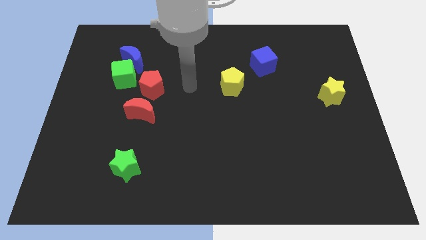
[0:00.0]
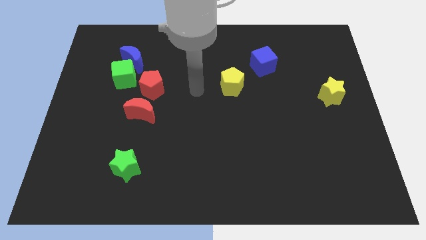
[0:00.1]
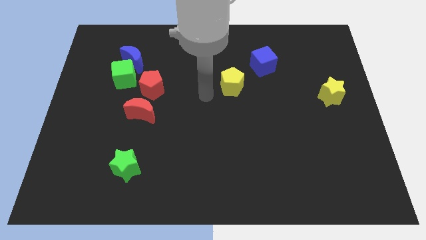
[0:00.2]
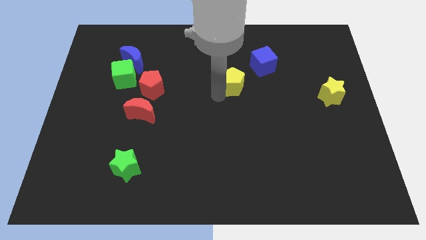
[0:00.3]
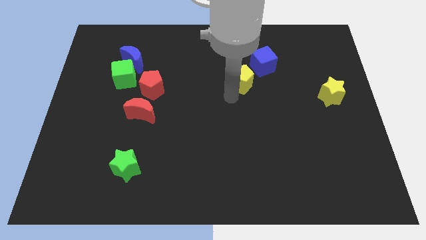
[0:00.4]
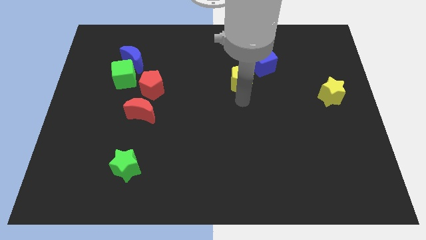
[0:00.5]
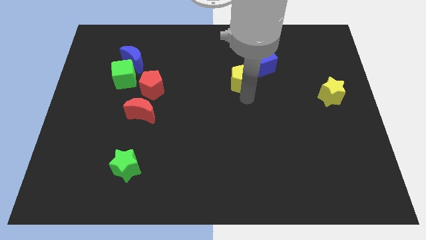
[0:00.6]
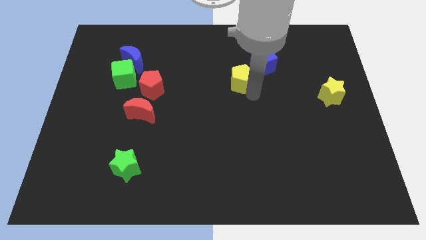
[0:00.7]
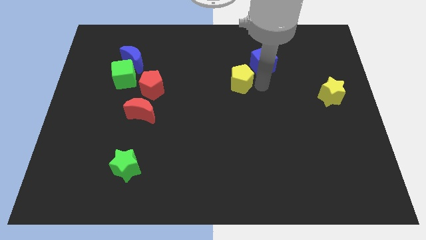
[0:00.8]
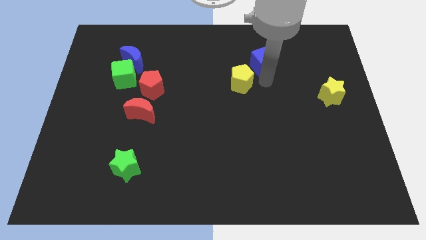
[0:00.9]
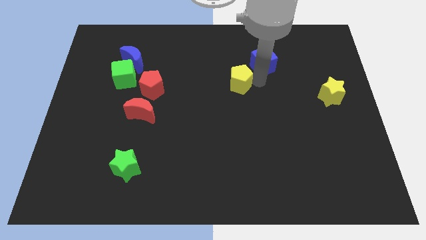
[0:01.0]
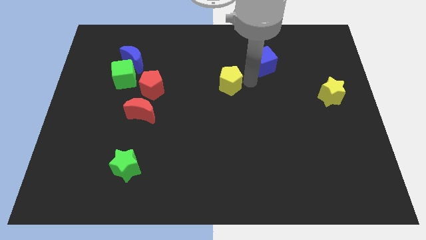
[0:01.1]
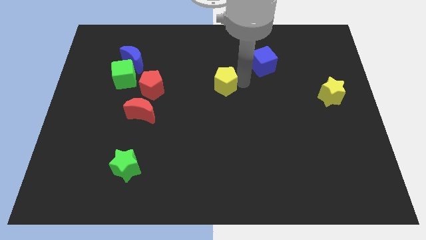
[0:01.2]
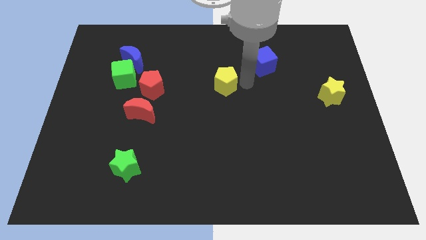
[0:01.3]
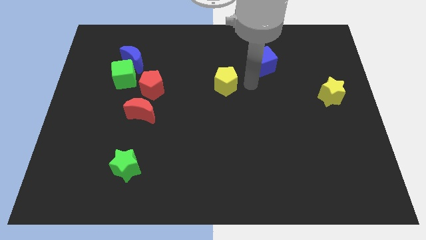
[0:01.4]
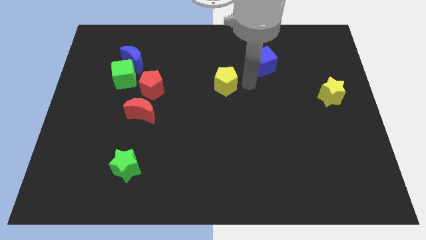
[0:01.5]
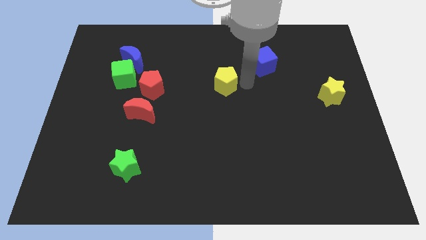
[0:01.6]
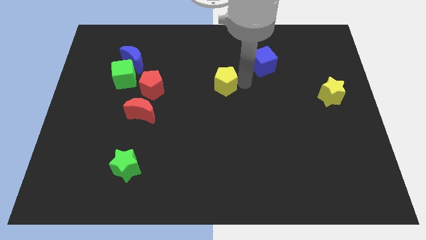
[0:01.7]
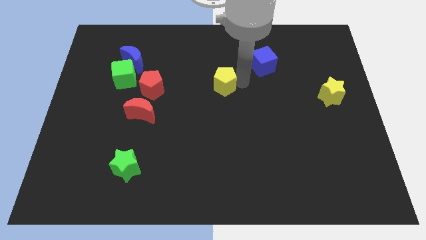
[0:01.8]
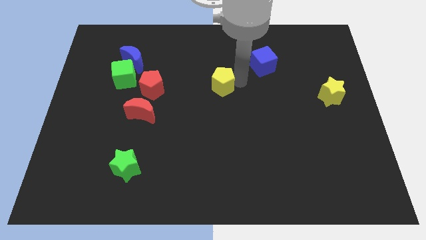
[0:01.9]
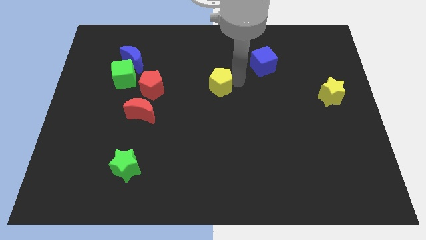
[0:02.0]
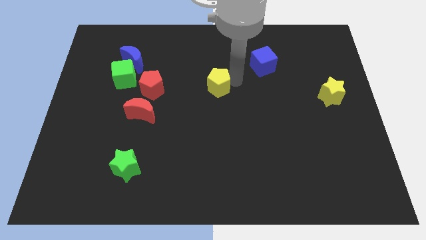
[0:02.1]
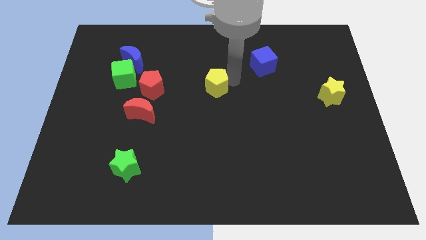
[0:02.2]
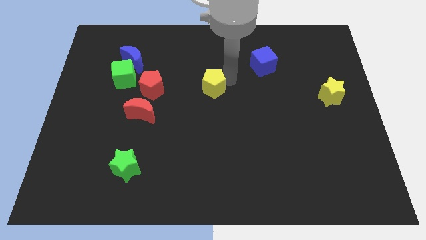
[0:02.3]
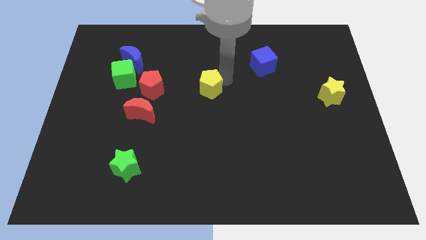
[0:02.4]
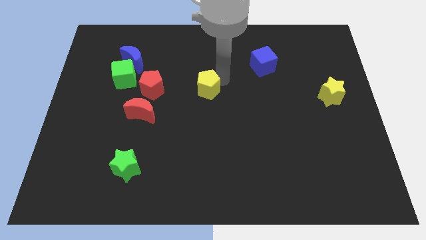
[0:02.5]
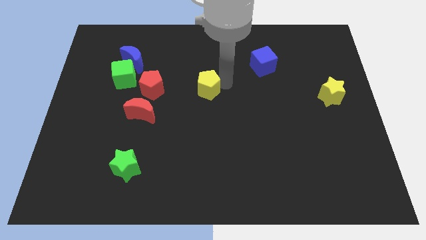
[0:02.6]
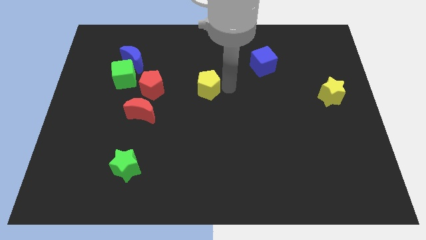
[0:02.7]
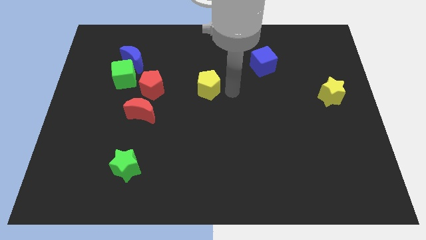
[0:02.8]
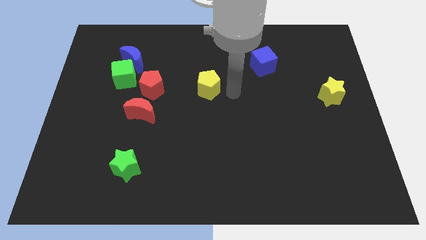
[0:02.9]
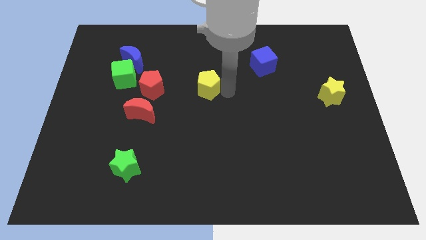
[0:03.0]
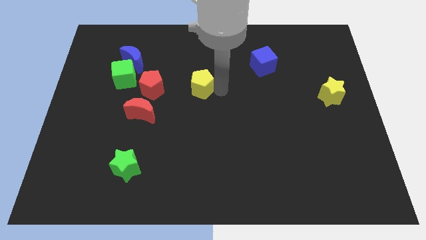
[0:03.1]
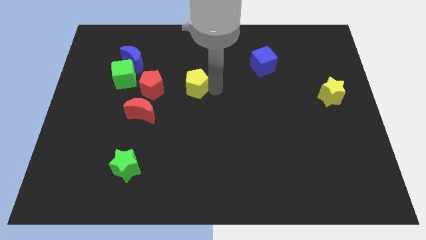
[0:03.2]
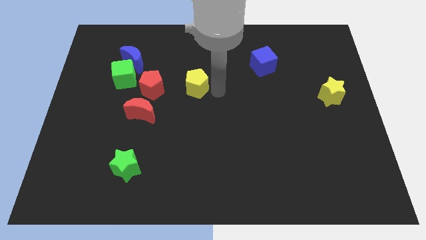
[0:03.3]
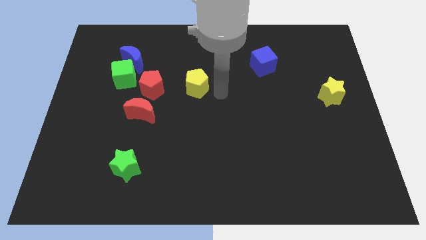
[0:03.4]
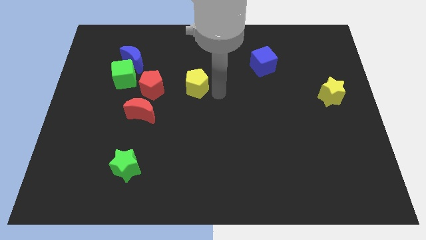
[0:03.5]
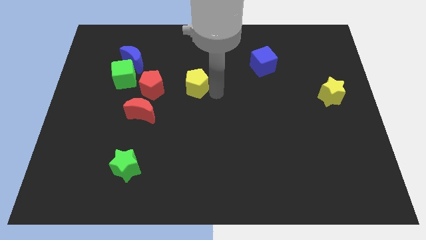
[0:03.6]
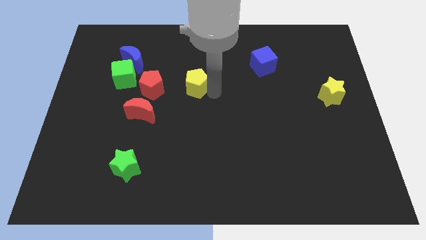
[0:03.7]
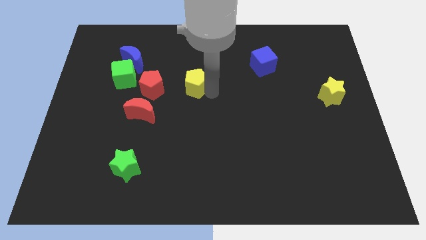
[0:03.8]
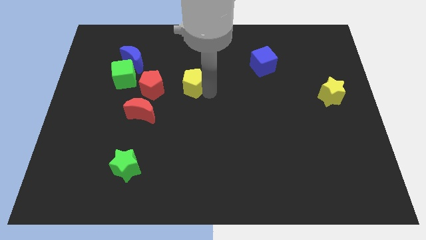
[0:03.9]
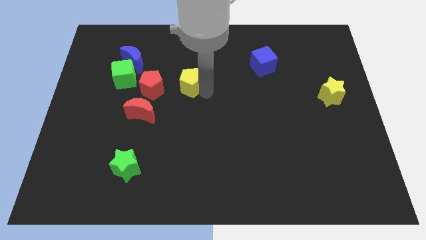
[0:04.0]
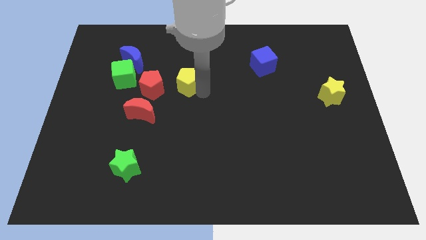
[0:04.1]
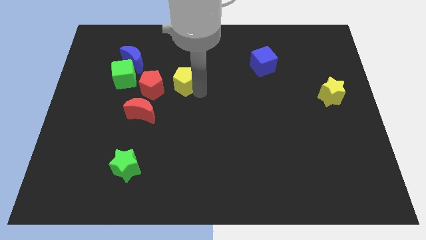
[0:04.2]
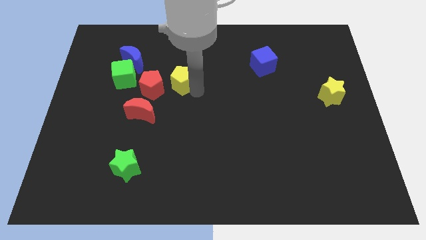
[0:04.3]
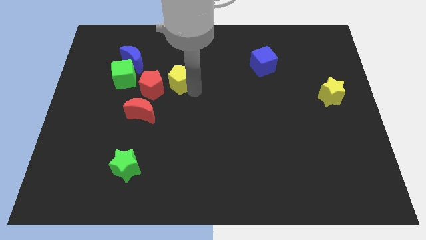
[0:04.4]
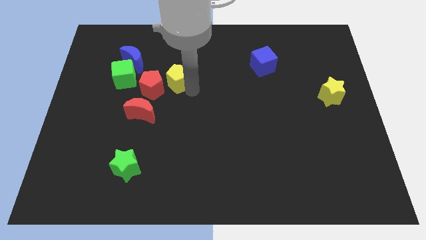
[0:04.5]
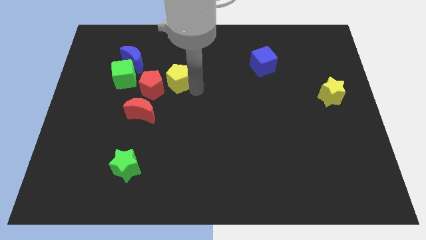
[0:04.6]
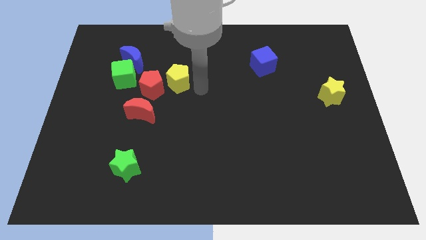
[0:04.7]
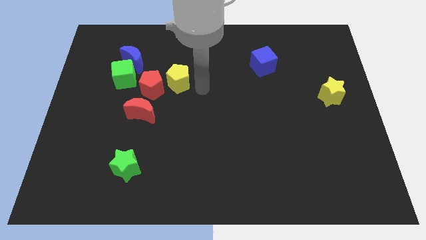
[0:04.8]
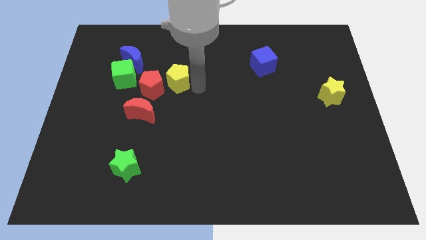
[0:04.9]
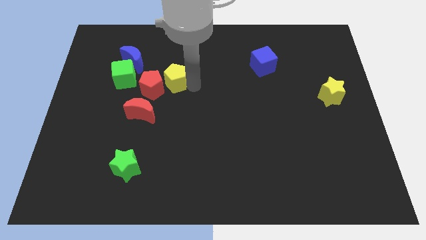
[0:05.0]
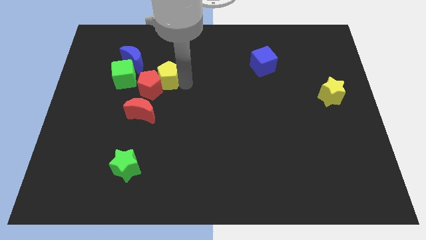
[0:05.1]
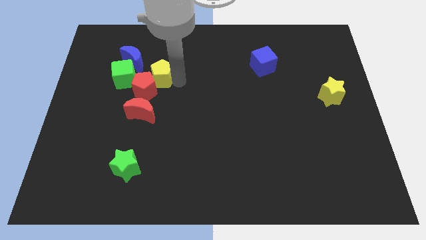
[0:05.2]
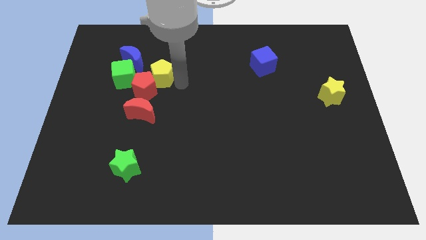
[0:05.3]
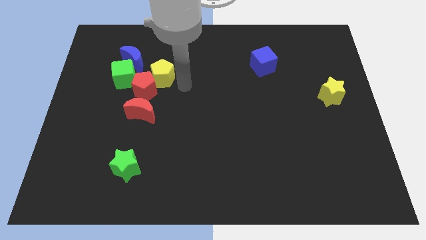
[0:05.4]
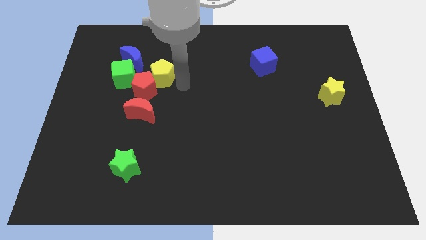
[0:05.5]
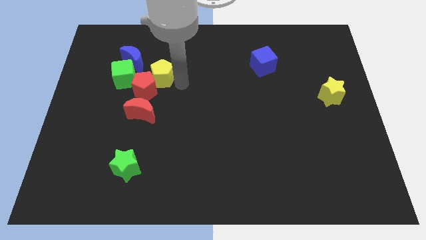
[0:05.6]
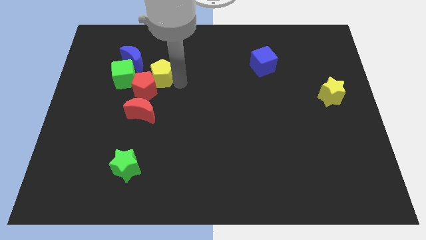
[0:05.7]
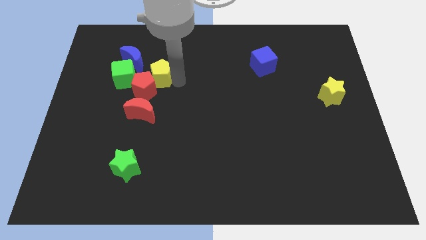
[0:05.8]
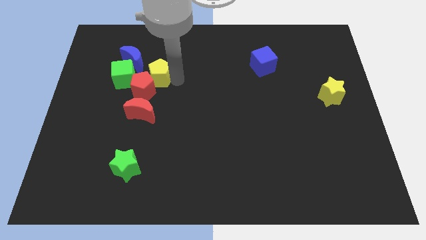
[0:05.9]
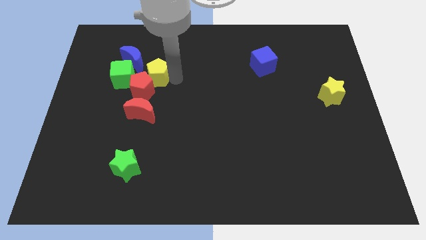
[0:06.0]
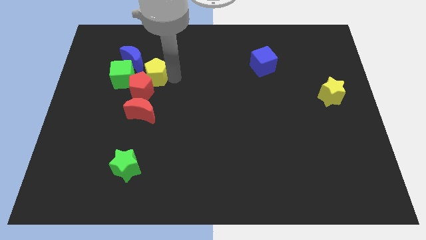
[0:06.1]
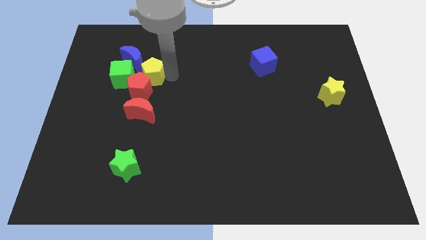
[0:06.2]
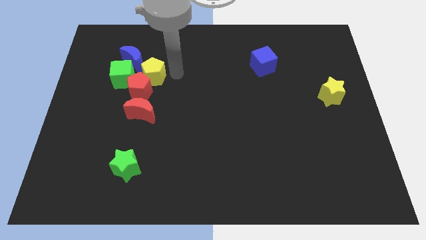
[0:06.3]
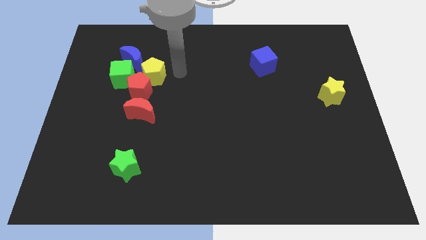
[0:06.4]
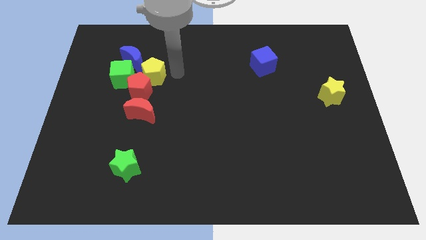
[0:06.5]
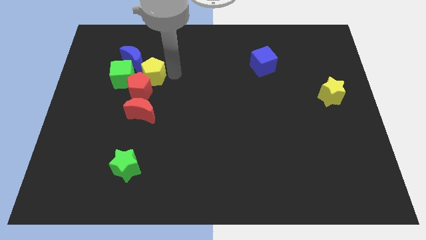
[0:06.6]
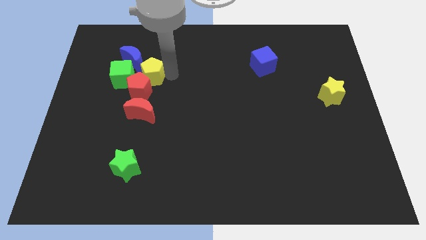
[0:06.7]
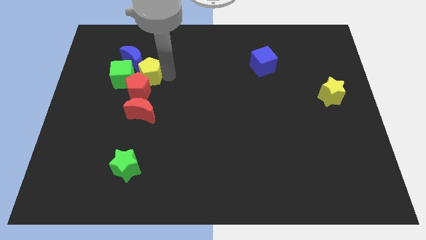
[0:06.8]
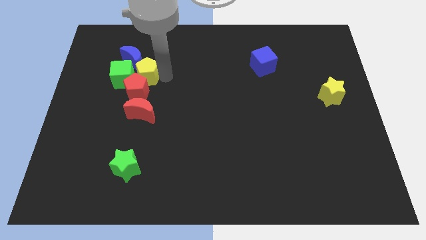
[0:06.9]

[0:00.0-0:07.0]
move the yellow pentagon towards the green cube
